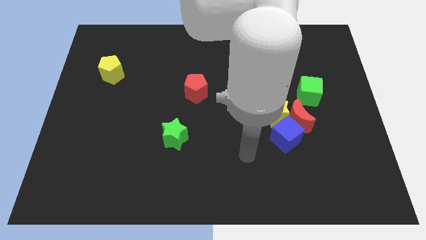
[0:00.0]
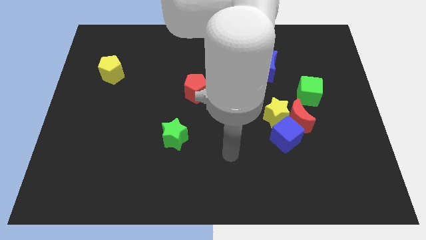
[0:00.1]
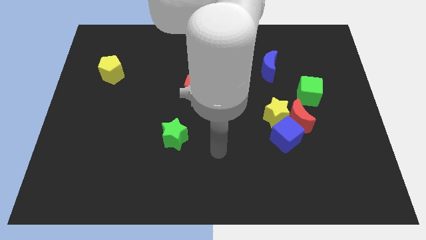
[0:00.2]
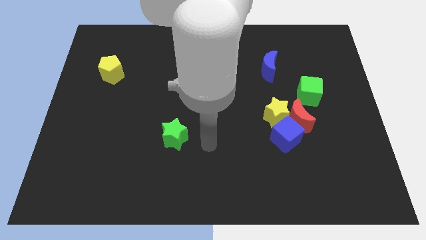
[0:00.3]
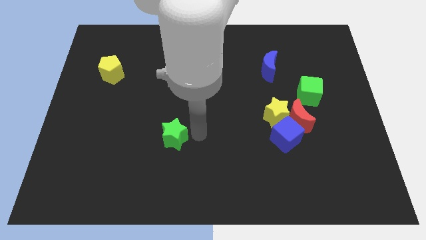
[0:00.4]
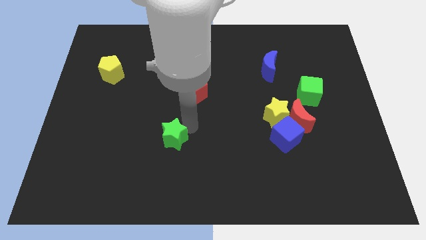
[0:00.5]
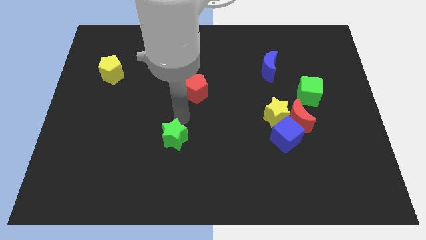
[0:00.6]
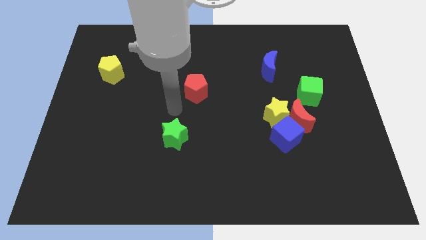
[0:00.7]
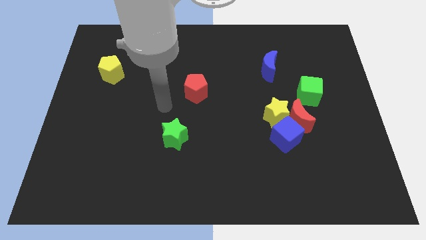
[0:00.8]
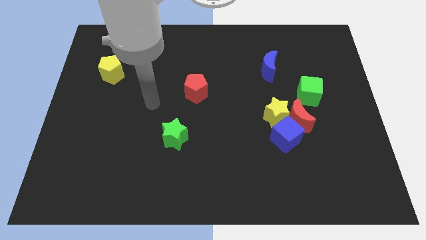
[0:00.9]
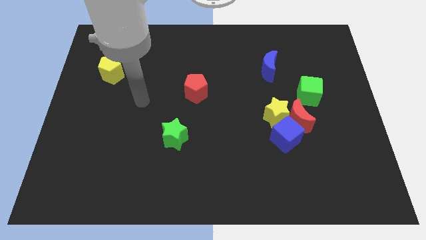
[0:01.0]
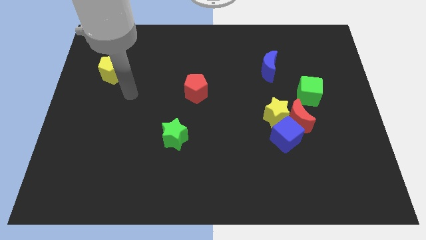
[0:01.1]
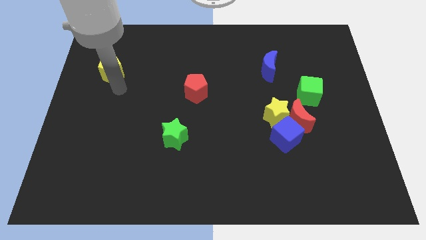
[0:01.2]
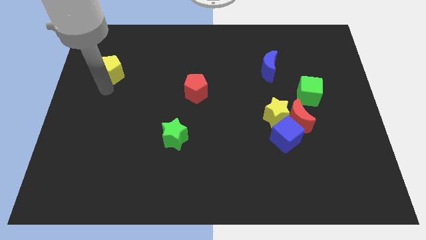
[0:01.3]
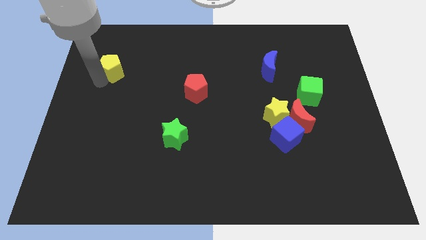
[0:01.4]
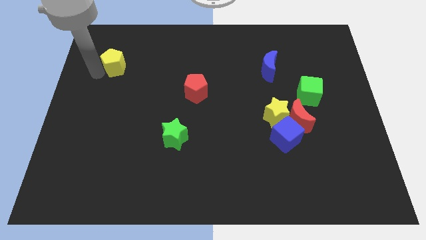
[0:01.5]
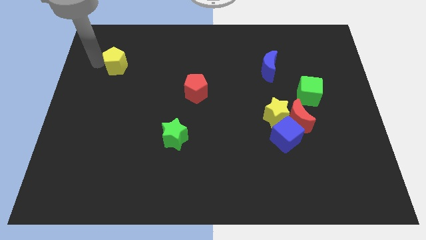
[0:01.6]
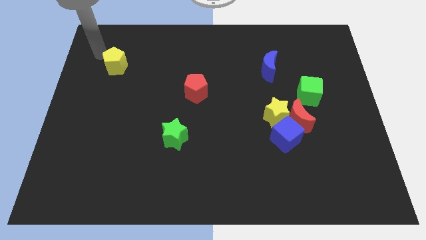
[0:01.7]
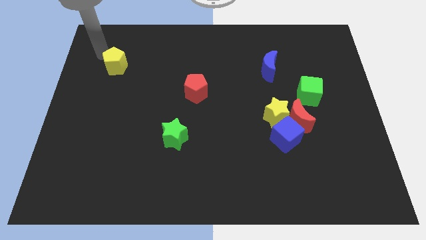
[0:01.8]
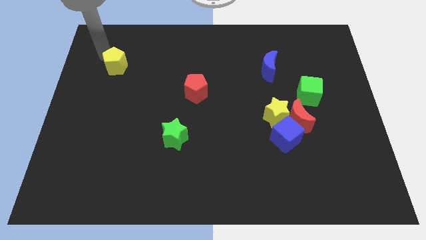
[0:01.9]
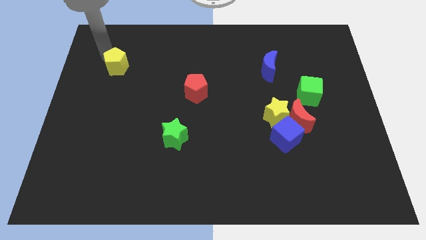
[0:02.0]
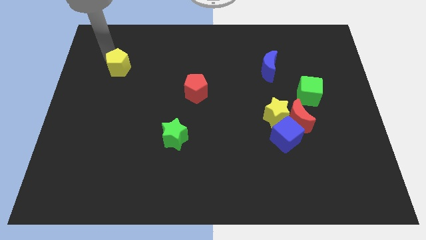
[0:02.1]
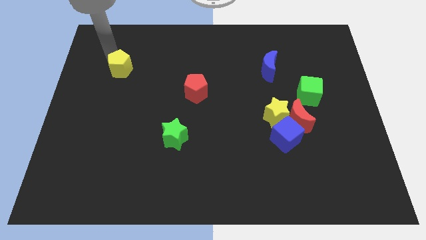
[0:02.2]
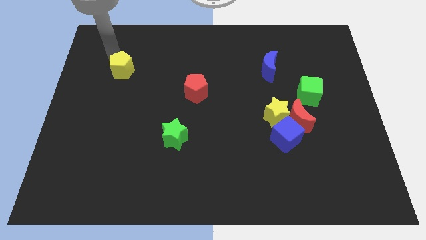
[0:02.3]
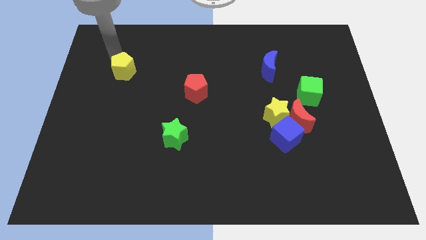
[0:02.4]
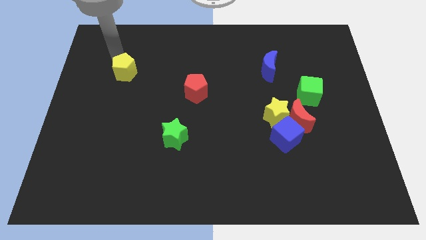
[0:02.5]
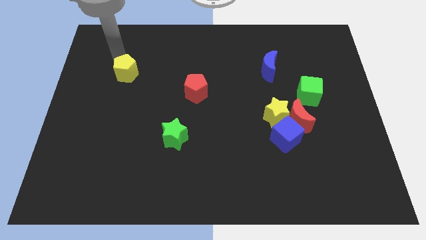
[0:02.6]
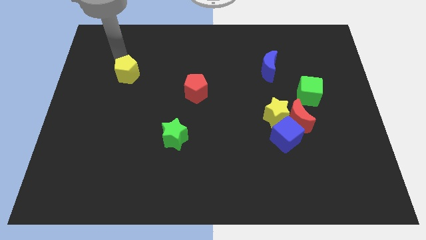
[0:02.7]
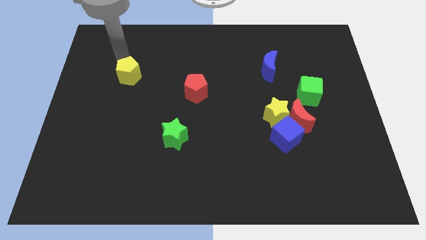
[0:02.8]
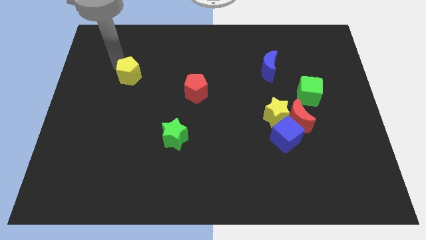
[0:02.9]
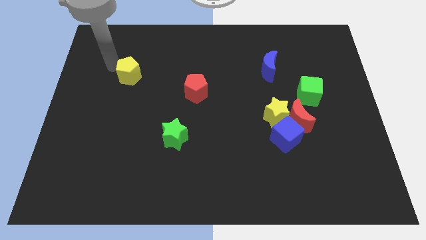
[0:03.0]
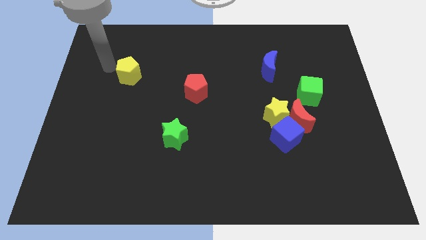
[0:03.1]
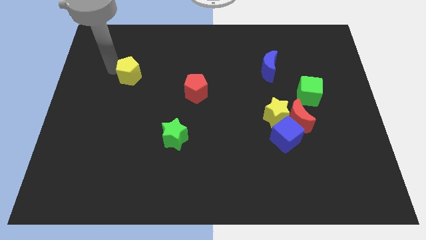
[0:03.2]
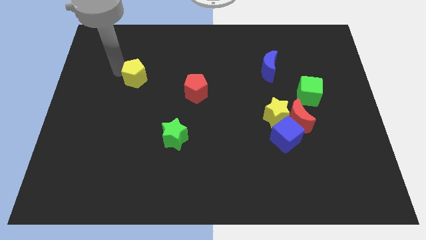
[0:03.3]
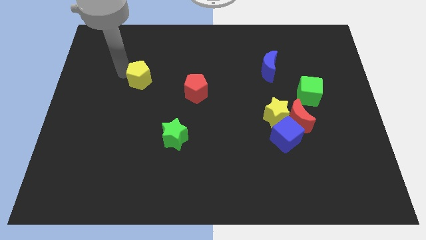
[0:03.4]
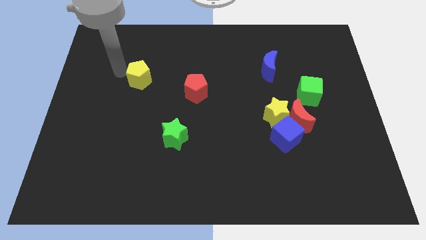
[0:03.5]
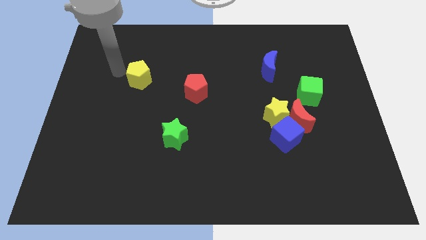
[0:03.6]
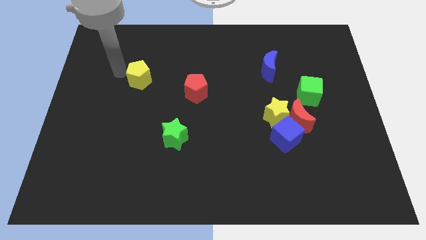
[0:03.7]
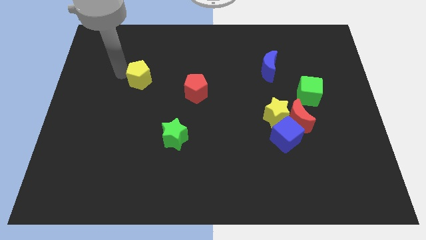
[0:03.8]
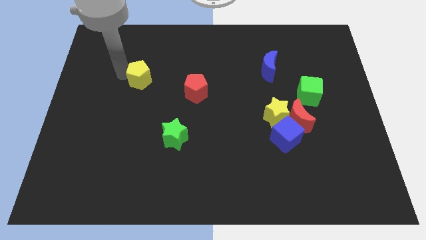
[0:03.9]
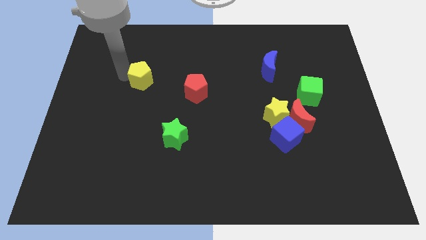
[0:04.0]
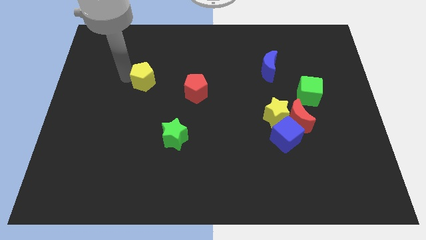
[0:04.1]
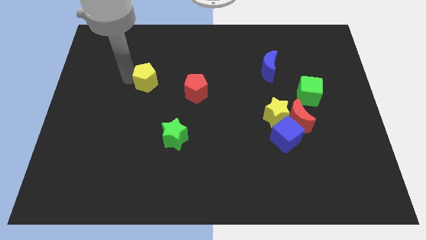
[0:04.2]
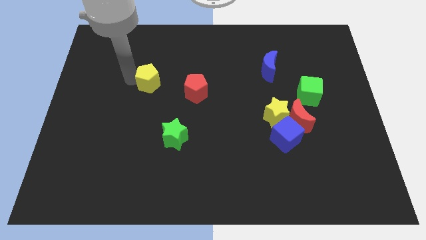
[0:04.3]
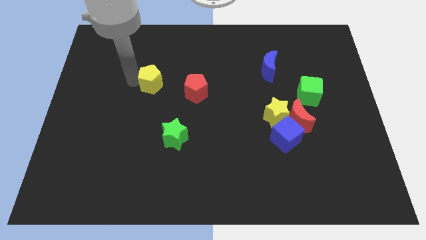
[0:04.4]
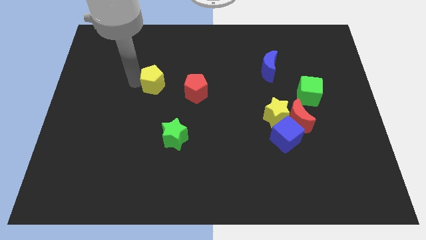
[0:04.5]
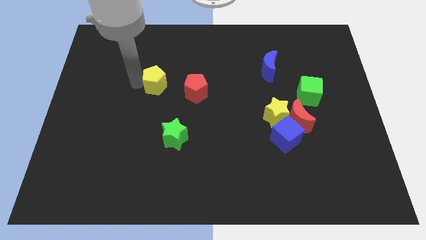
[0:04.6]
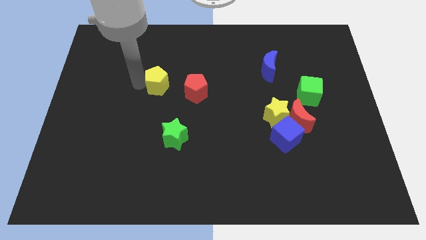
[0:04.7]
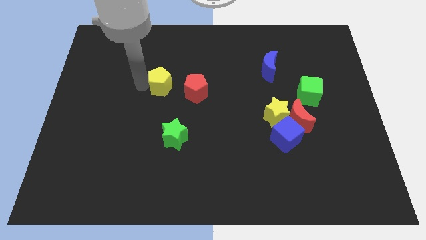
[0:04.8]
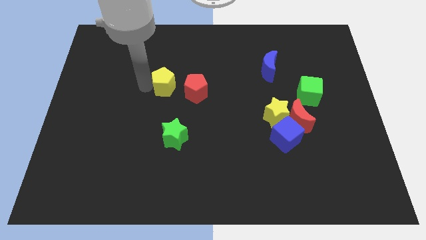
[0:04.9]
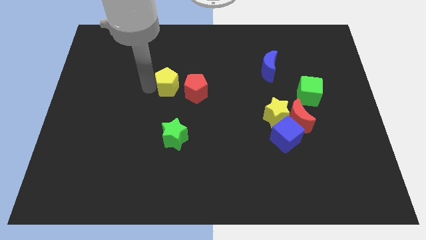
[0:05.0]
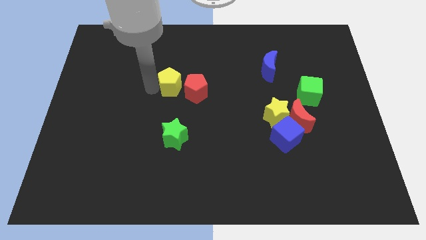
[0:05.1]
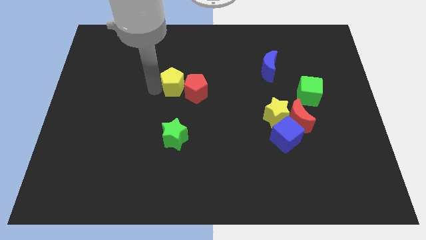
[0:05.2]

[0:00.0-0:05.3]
slide the yellow pentagon close to the red pentagon

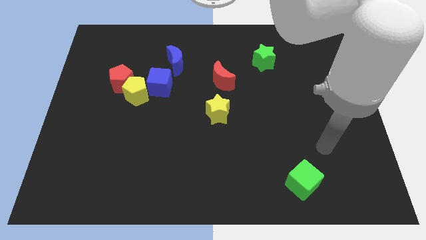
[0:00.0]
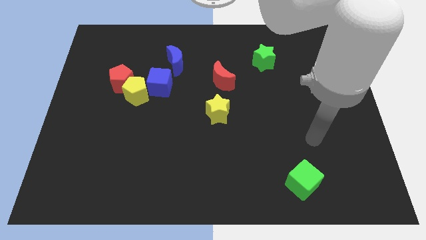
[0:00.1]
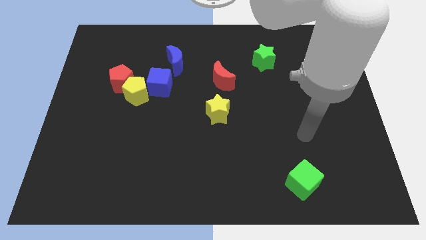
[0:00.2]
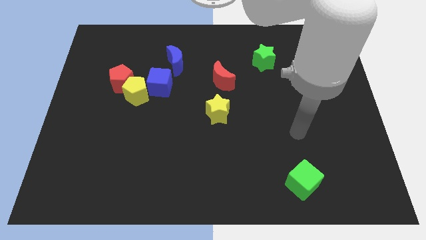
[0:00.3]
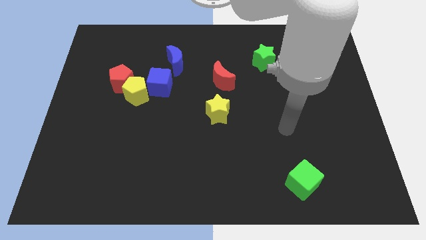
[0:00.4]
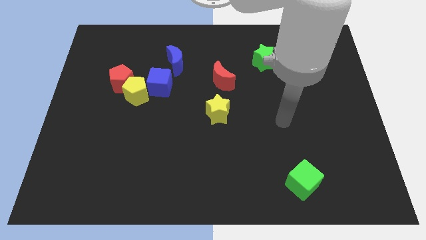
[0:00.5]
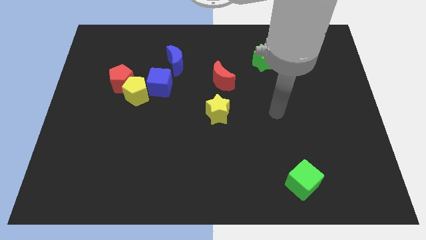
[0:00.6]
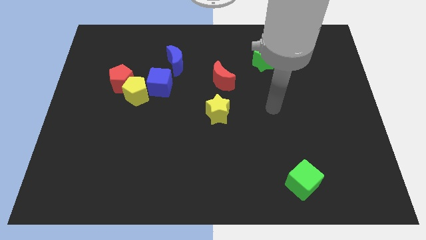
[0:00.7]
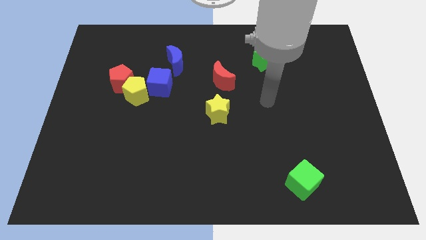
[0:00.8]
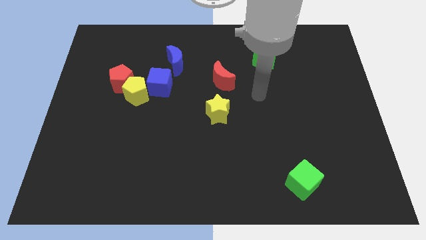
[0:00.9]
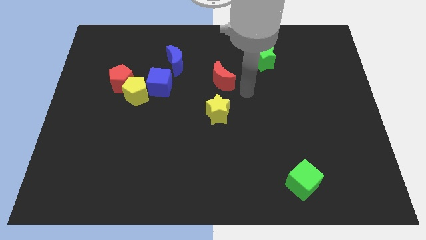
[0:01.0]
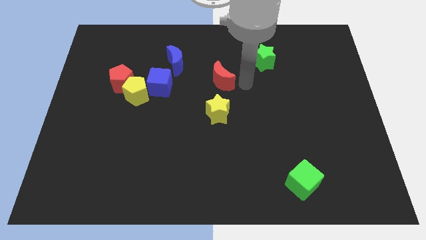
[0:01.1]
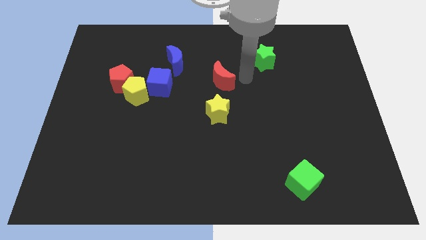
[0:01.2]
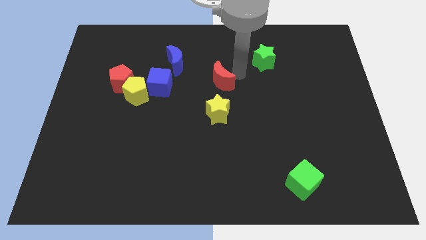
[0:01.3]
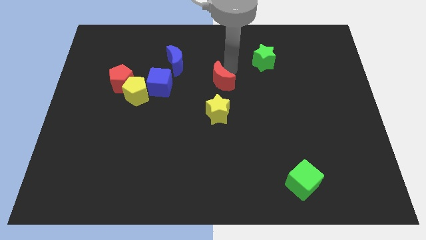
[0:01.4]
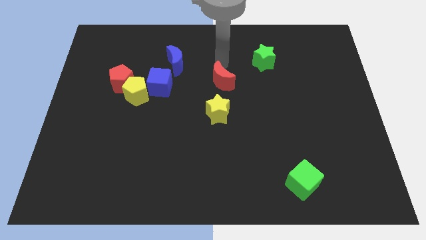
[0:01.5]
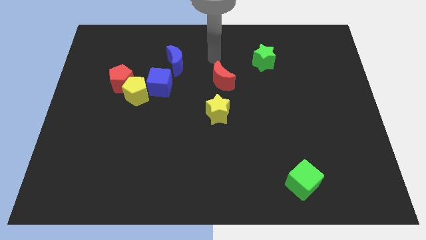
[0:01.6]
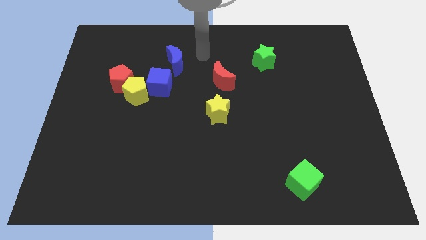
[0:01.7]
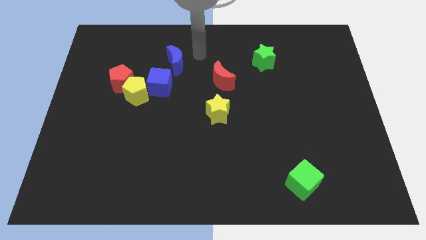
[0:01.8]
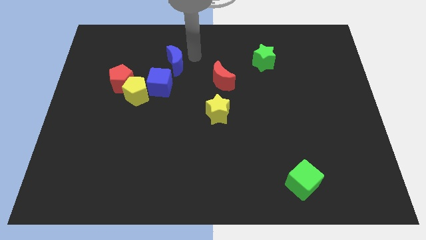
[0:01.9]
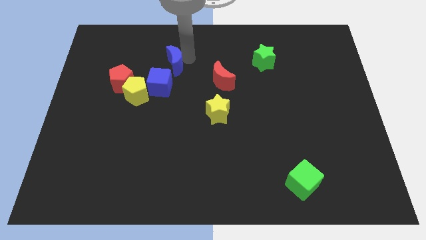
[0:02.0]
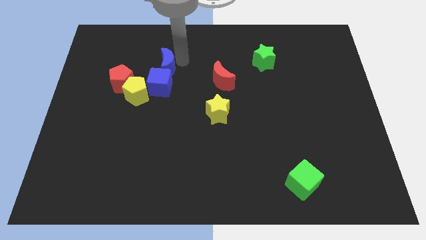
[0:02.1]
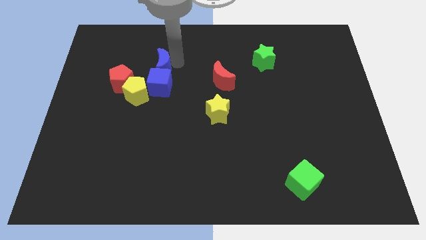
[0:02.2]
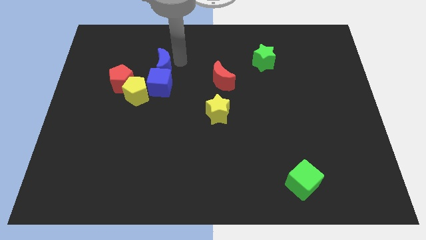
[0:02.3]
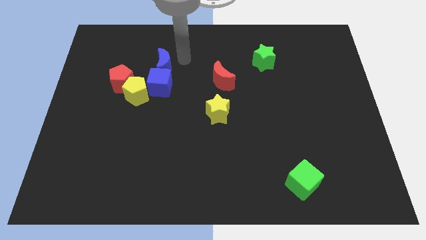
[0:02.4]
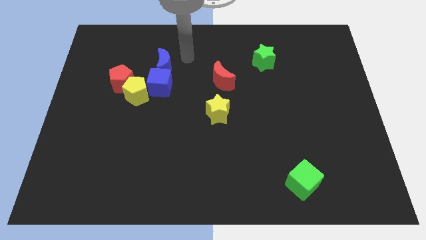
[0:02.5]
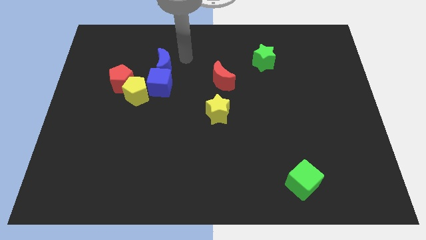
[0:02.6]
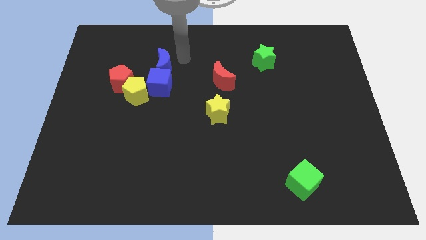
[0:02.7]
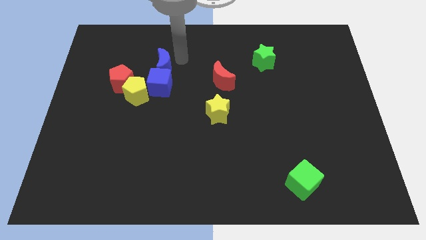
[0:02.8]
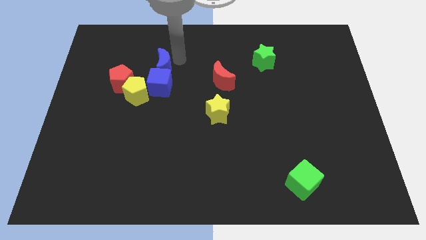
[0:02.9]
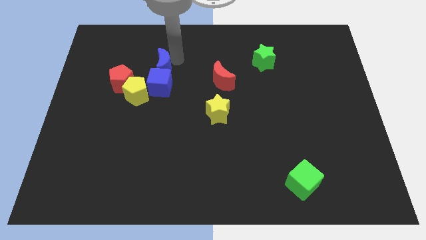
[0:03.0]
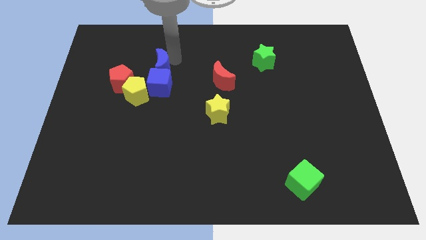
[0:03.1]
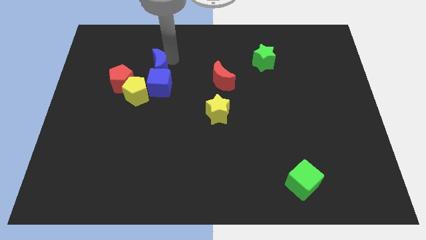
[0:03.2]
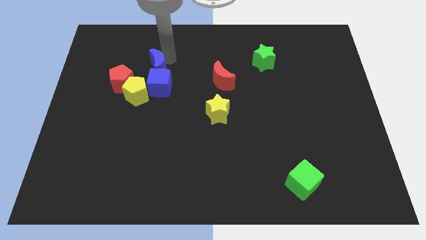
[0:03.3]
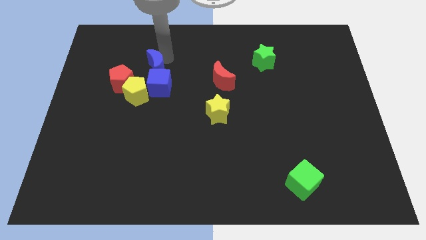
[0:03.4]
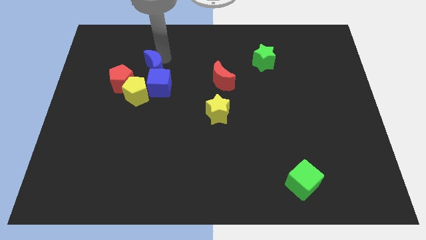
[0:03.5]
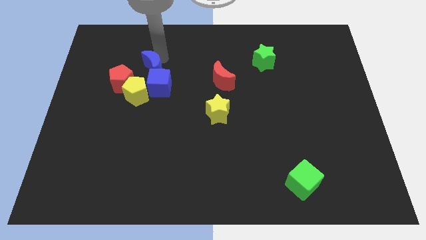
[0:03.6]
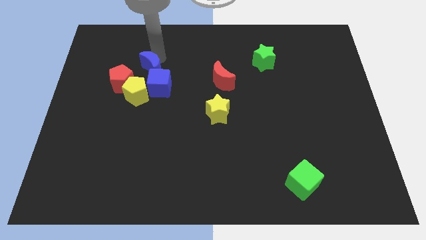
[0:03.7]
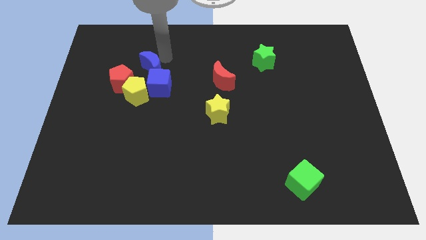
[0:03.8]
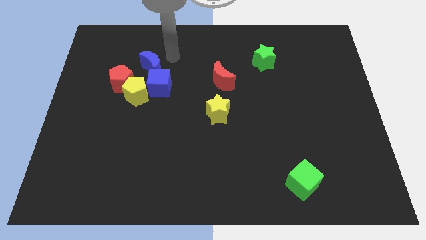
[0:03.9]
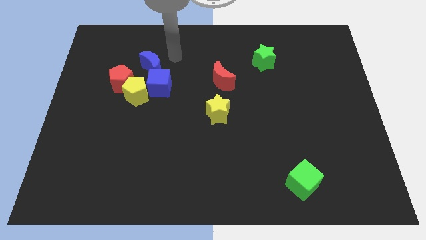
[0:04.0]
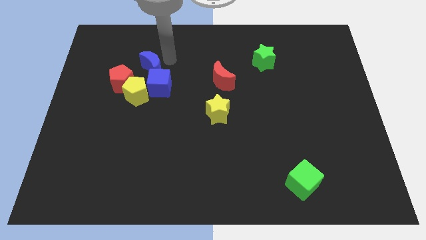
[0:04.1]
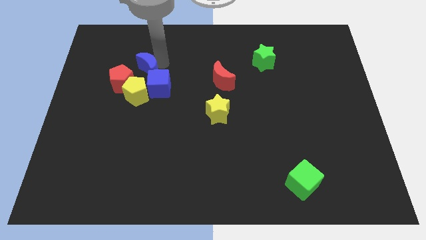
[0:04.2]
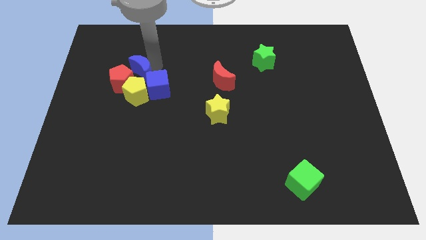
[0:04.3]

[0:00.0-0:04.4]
put the blue moon next to the red pentagon
